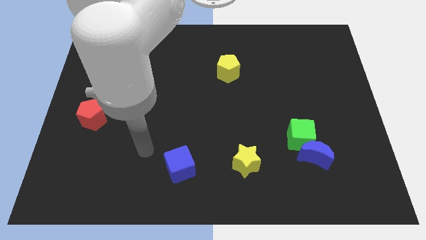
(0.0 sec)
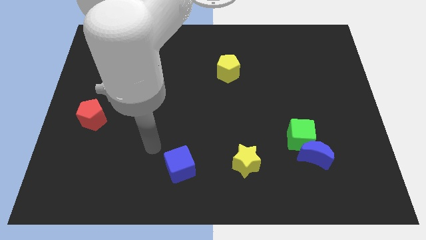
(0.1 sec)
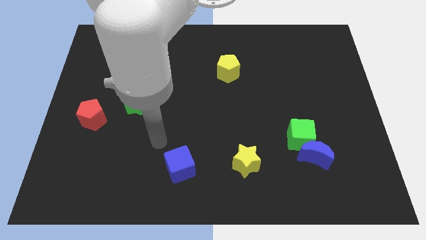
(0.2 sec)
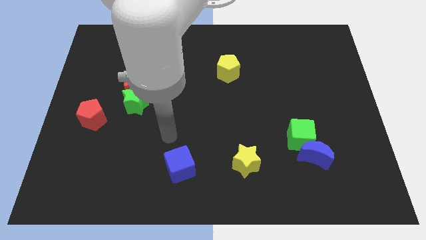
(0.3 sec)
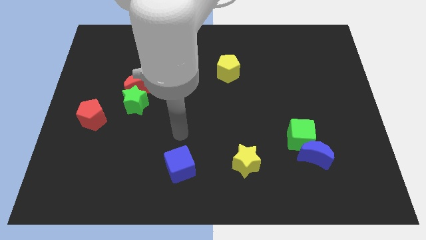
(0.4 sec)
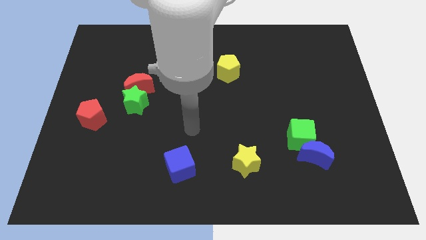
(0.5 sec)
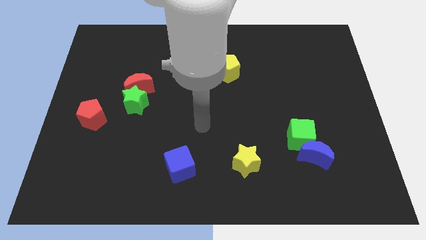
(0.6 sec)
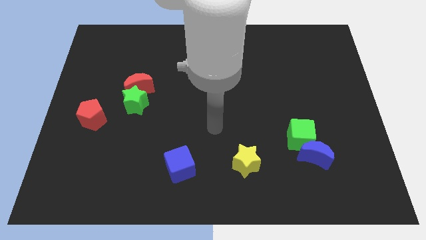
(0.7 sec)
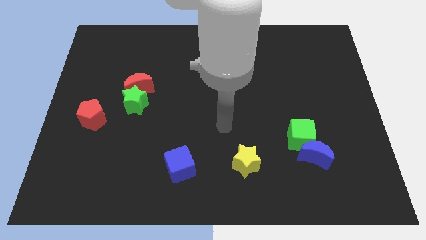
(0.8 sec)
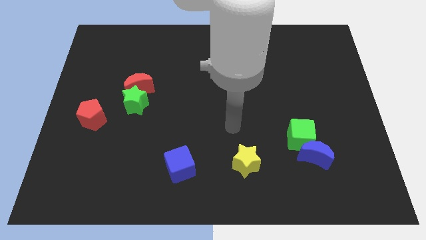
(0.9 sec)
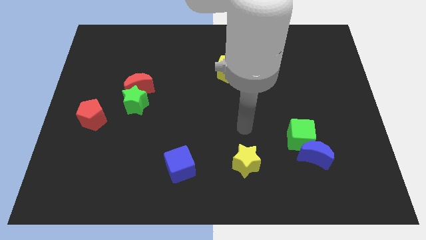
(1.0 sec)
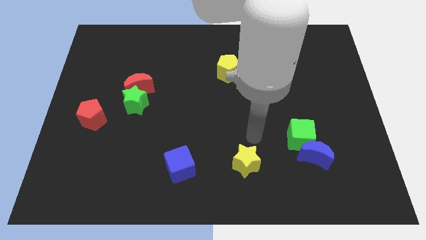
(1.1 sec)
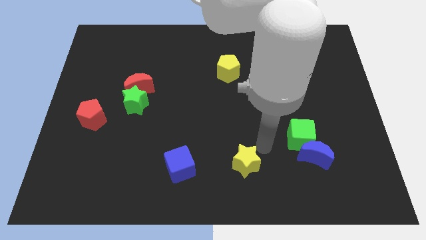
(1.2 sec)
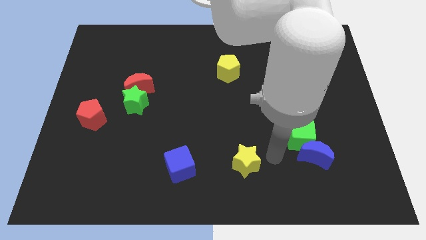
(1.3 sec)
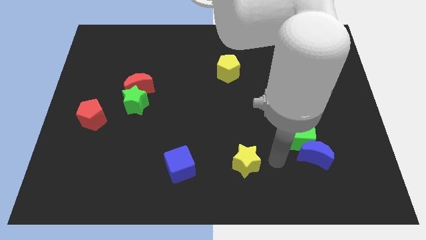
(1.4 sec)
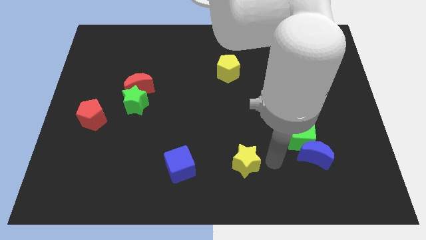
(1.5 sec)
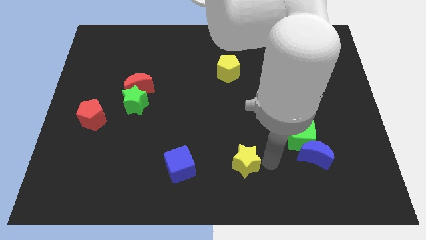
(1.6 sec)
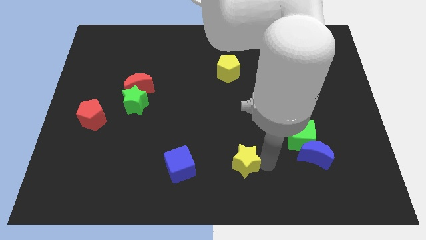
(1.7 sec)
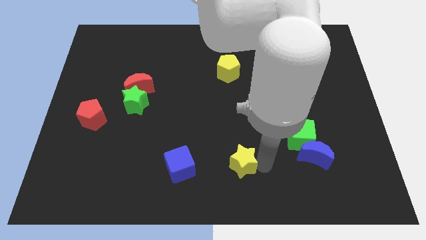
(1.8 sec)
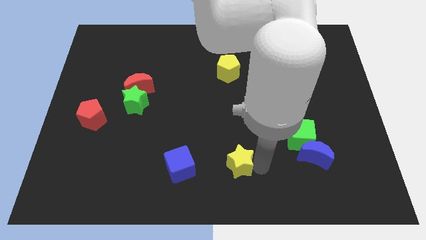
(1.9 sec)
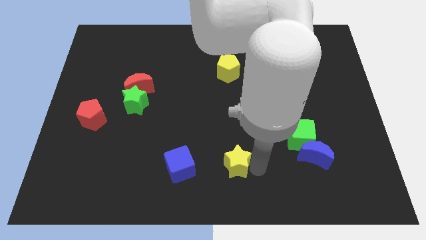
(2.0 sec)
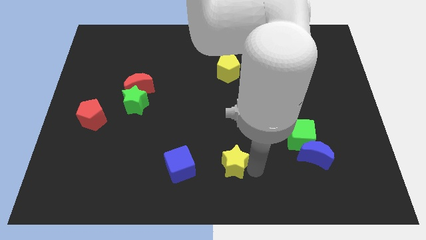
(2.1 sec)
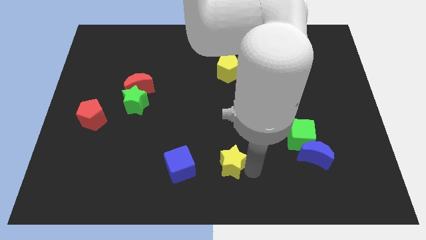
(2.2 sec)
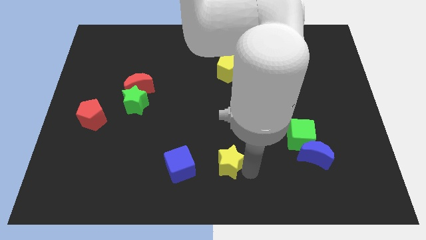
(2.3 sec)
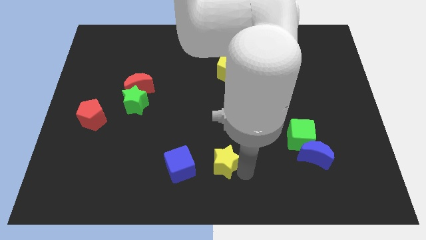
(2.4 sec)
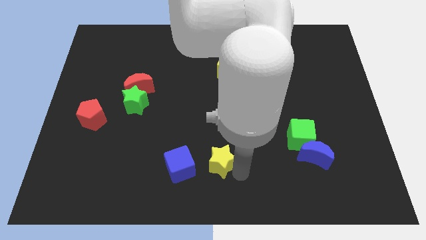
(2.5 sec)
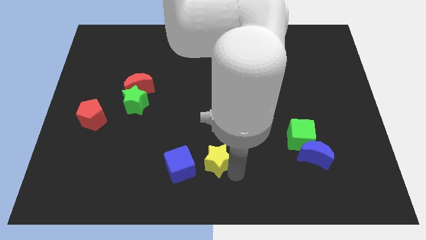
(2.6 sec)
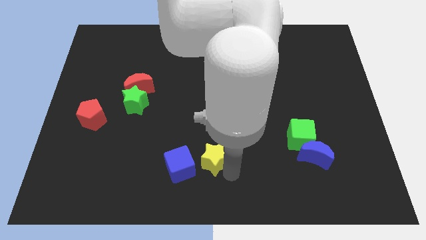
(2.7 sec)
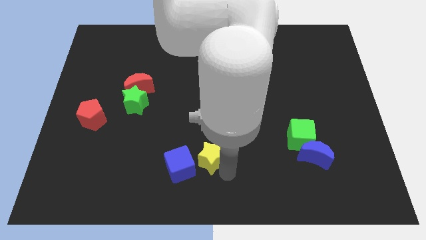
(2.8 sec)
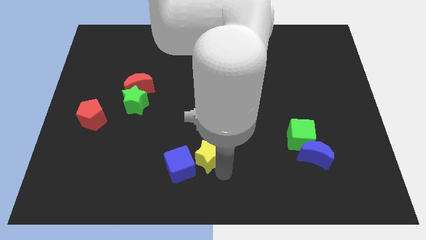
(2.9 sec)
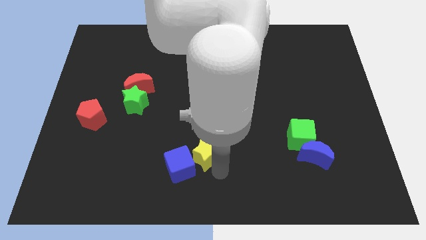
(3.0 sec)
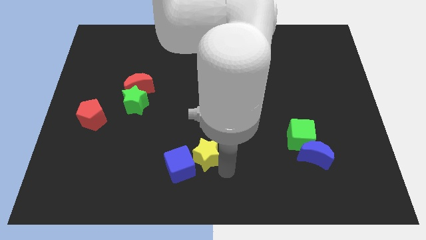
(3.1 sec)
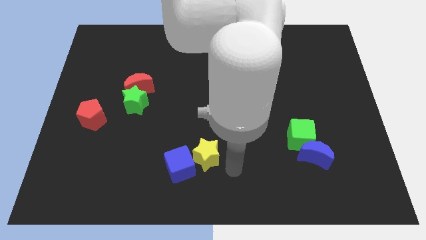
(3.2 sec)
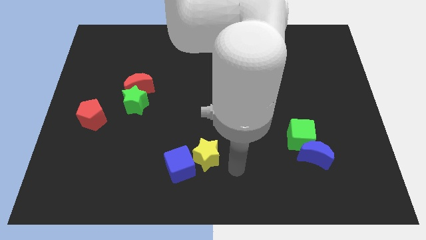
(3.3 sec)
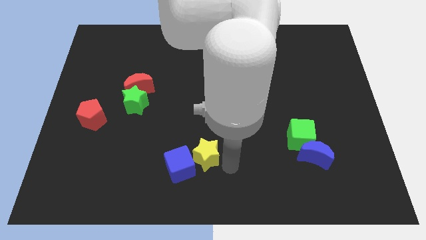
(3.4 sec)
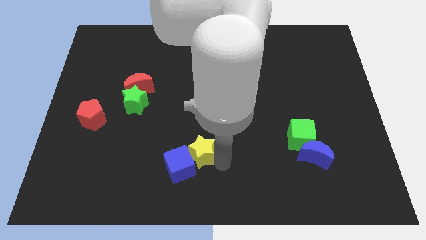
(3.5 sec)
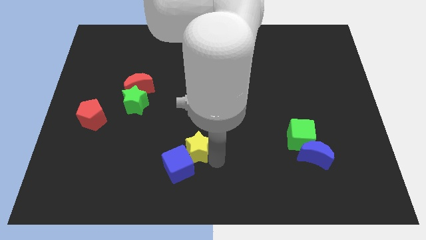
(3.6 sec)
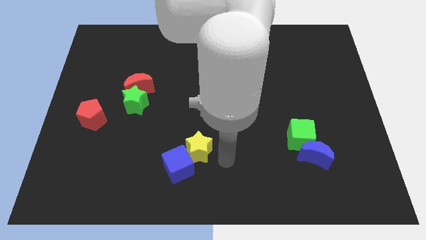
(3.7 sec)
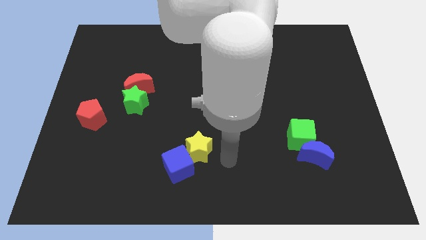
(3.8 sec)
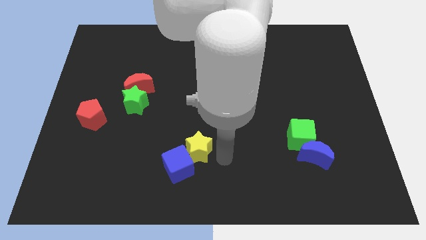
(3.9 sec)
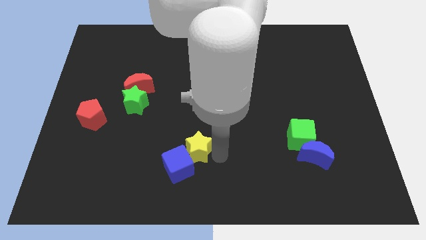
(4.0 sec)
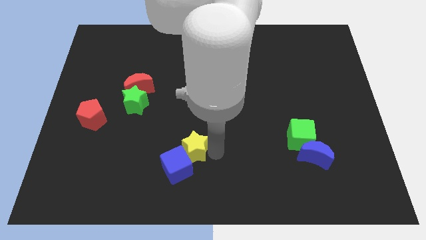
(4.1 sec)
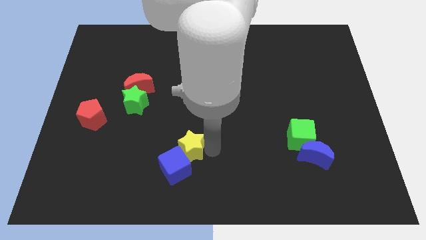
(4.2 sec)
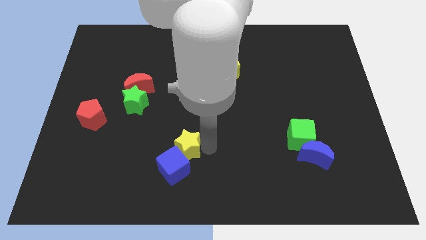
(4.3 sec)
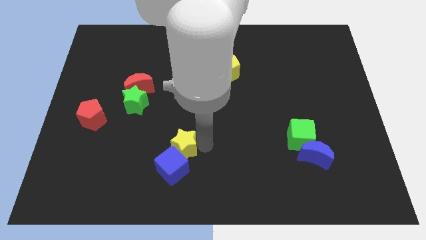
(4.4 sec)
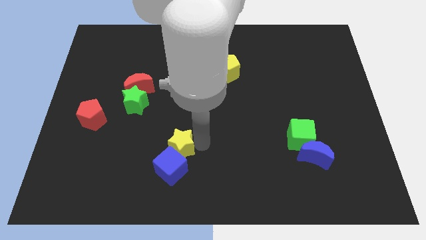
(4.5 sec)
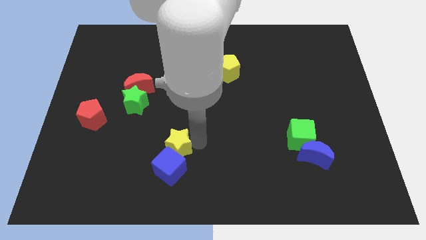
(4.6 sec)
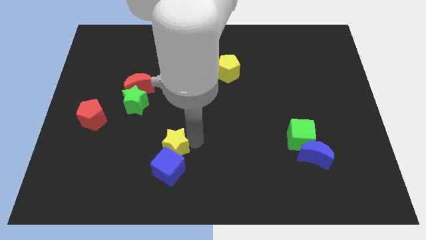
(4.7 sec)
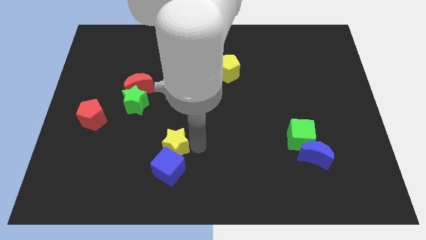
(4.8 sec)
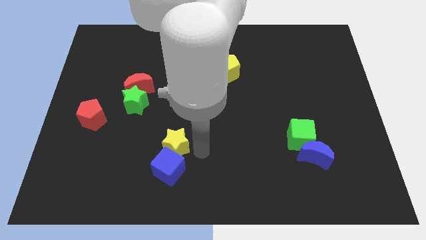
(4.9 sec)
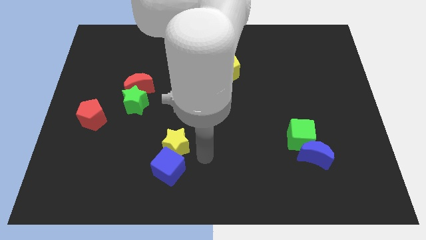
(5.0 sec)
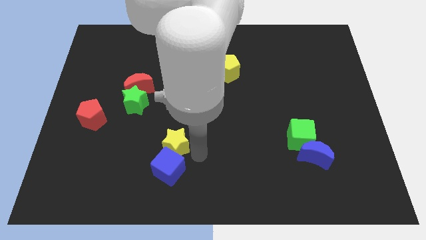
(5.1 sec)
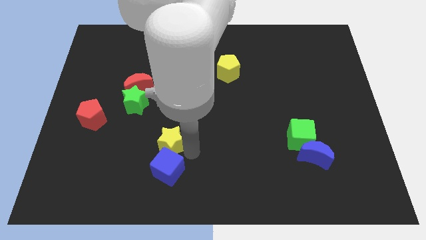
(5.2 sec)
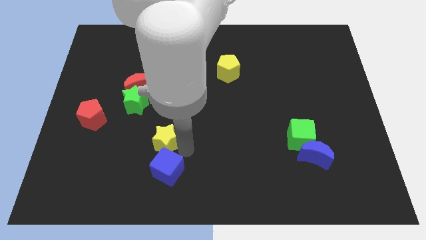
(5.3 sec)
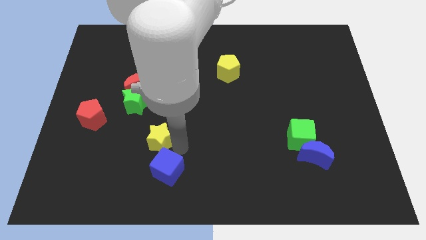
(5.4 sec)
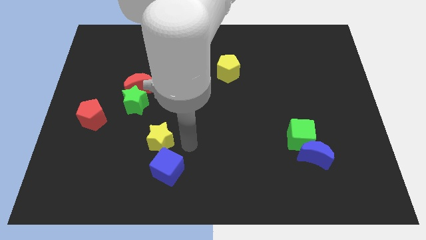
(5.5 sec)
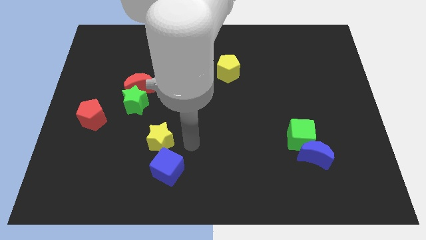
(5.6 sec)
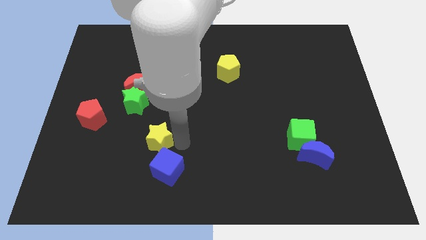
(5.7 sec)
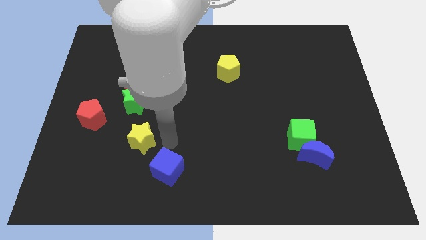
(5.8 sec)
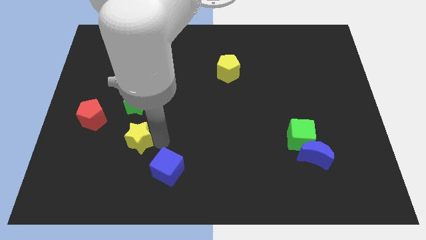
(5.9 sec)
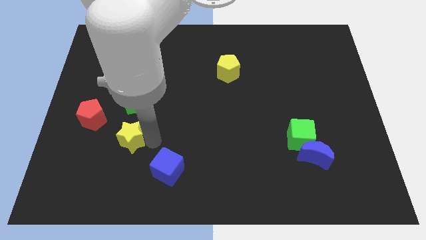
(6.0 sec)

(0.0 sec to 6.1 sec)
push the yellow star to the bottom right of the red pentagon

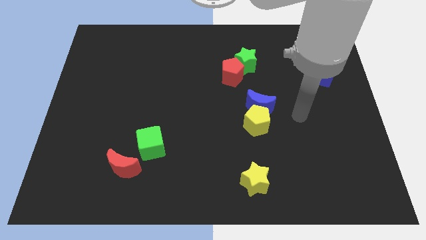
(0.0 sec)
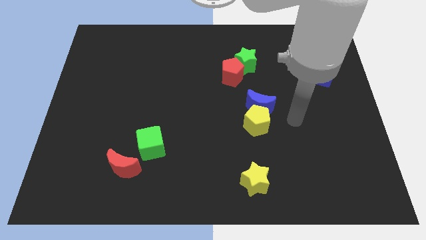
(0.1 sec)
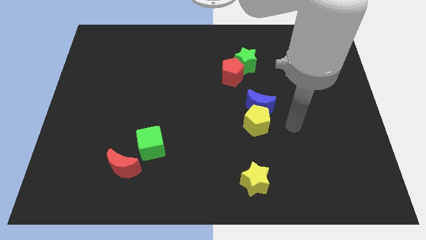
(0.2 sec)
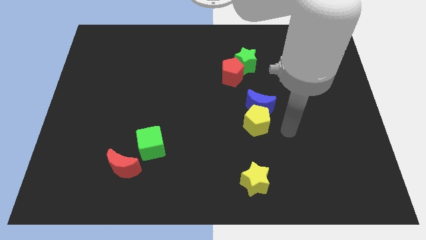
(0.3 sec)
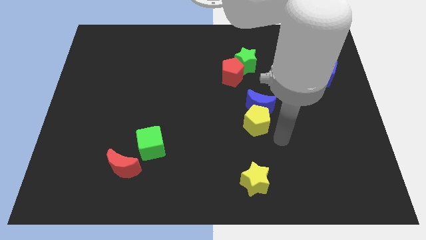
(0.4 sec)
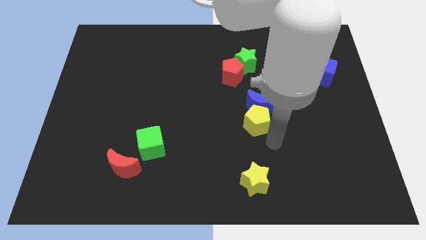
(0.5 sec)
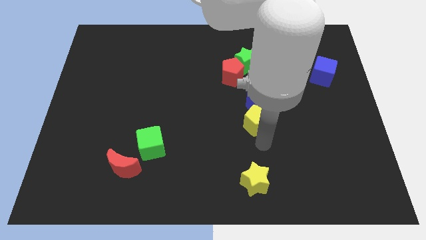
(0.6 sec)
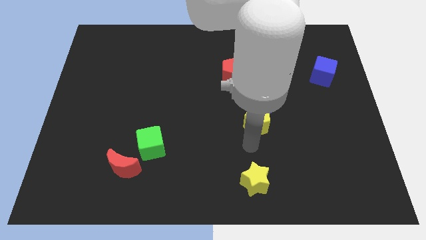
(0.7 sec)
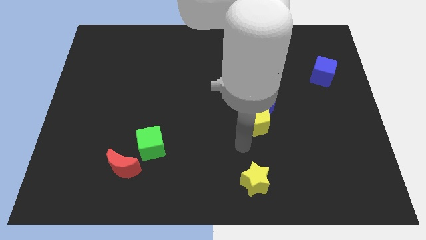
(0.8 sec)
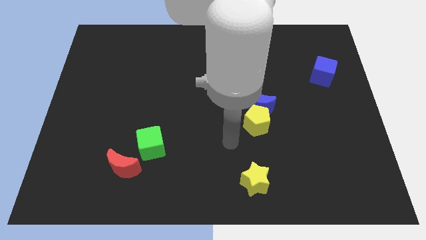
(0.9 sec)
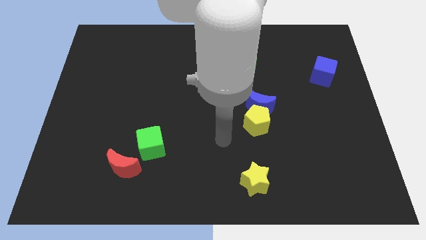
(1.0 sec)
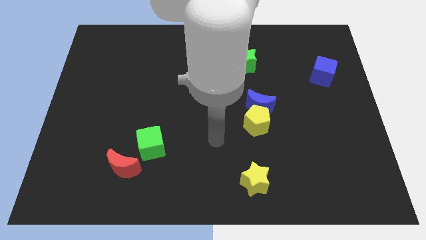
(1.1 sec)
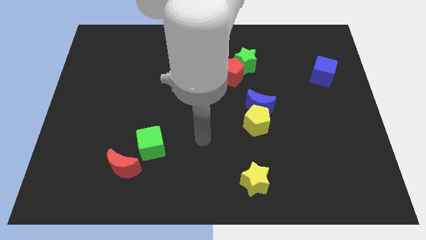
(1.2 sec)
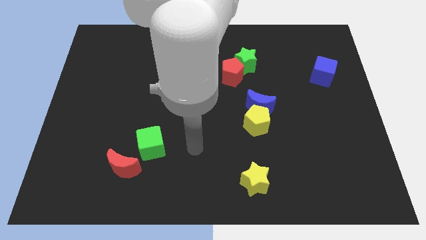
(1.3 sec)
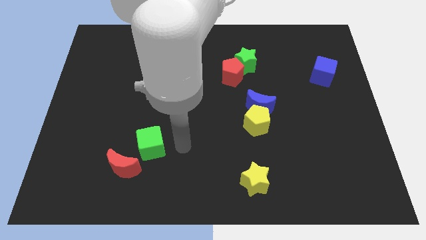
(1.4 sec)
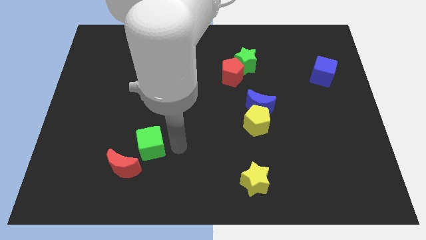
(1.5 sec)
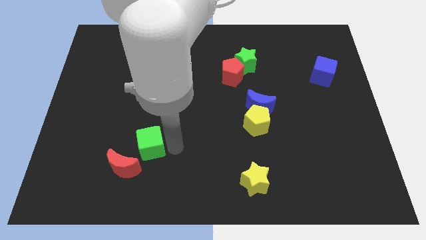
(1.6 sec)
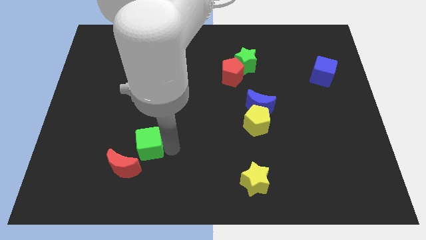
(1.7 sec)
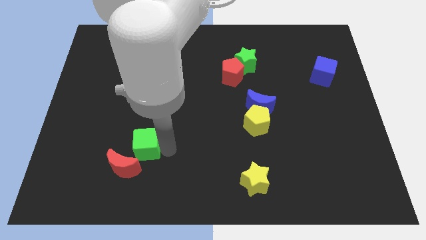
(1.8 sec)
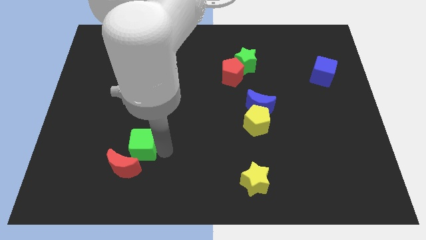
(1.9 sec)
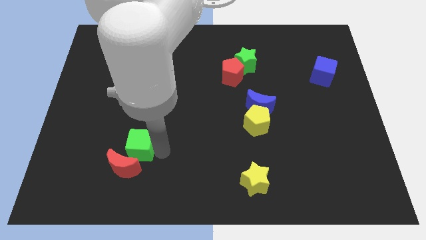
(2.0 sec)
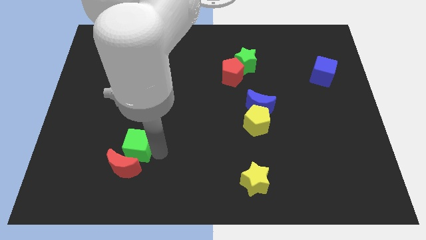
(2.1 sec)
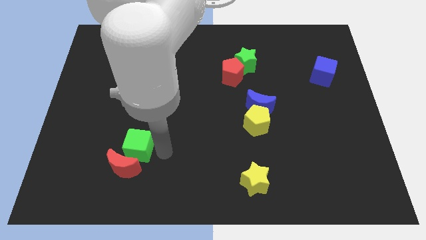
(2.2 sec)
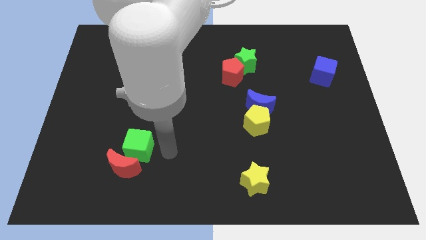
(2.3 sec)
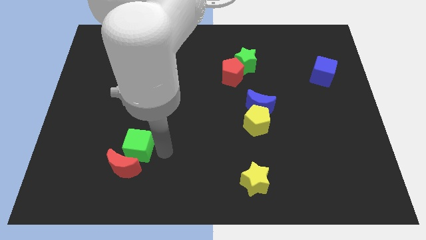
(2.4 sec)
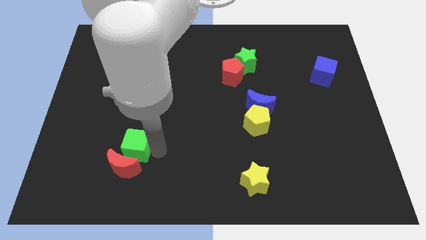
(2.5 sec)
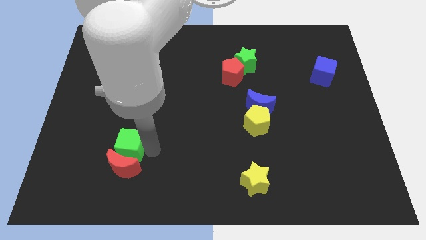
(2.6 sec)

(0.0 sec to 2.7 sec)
slide the green cube diagonally up and to the left of the red moon
